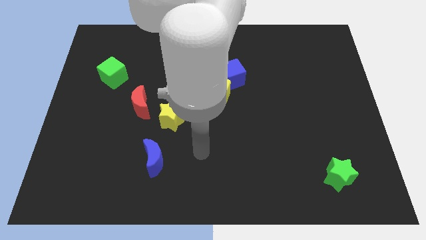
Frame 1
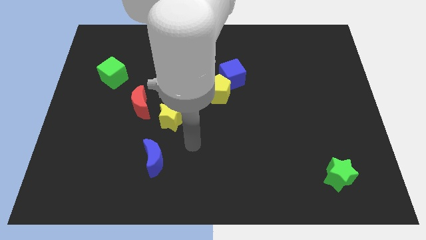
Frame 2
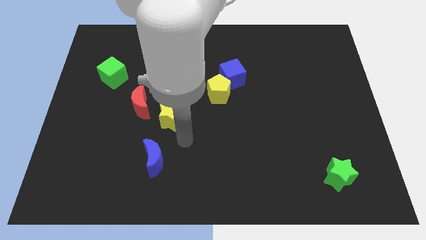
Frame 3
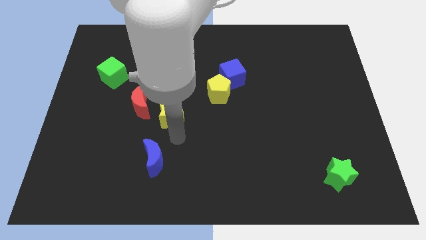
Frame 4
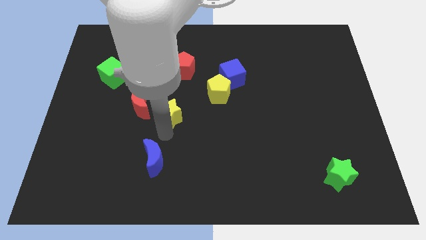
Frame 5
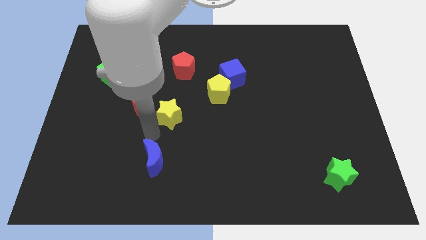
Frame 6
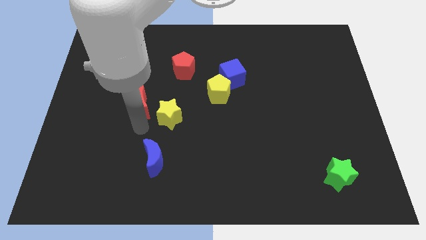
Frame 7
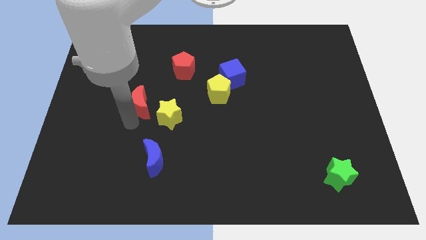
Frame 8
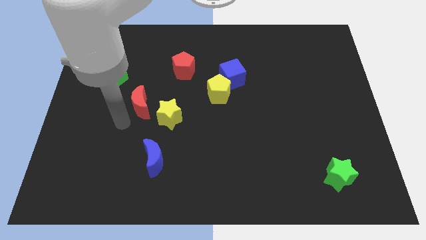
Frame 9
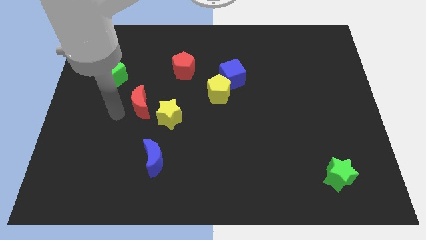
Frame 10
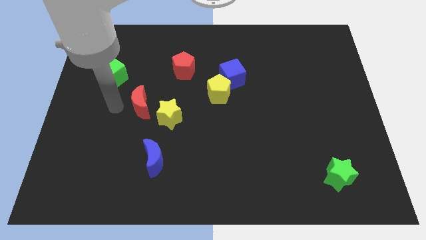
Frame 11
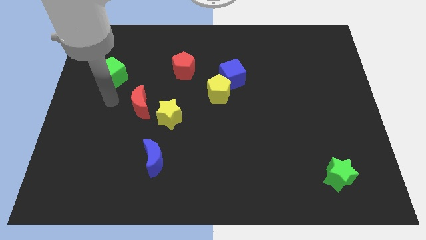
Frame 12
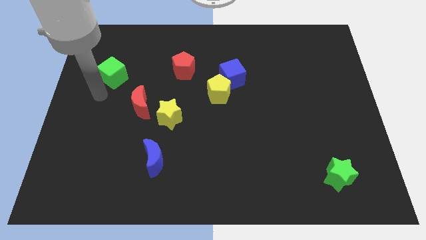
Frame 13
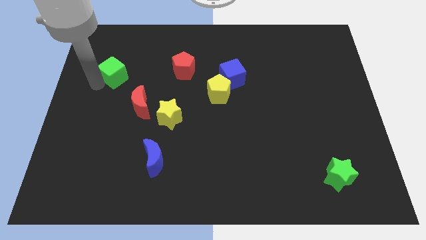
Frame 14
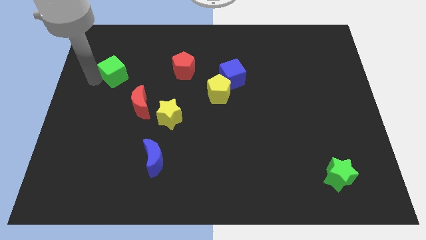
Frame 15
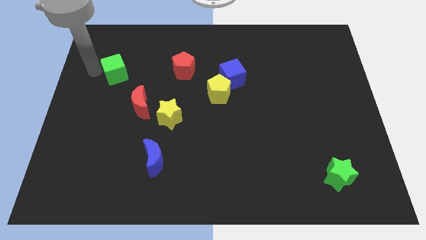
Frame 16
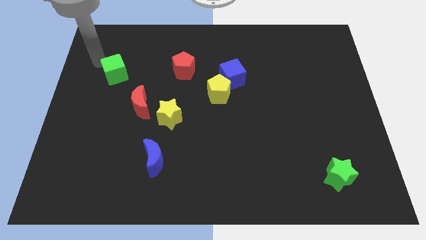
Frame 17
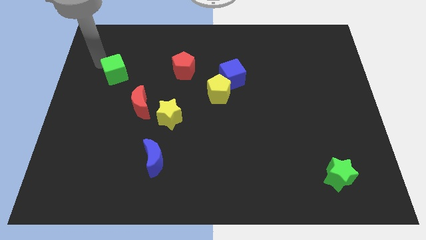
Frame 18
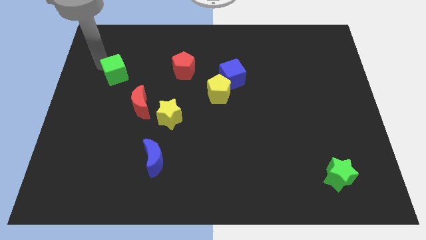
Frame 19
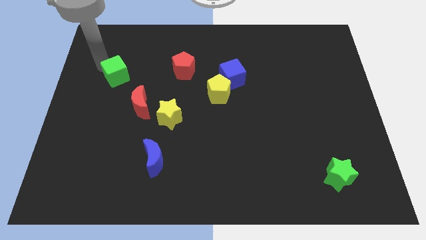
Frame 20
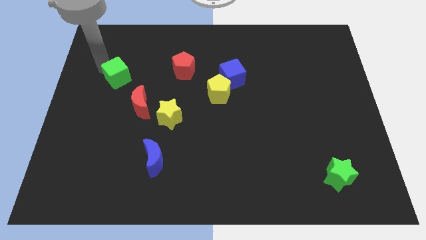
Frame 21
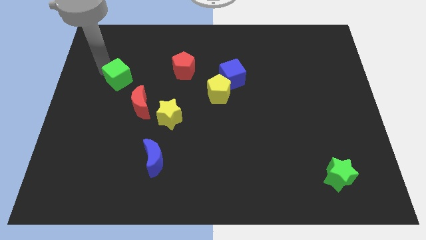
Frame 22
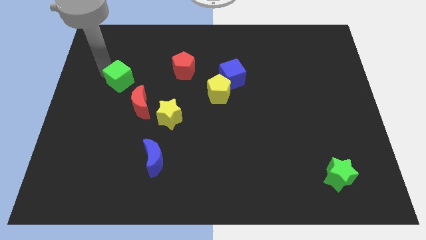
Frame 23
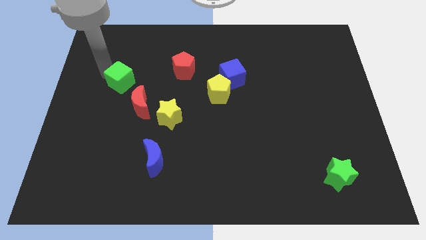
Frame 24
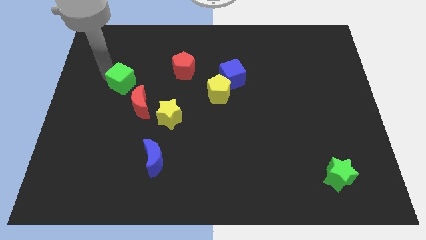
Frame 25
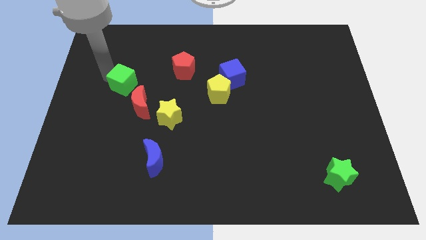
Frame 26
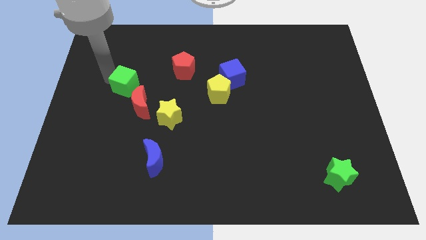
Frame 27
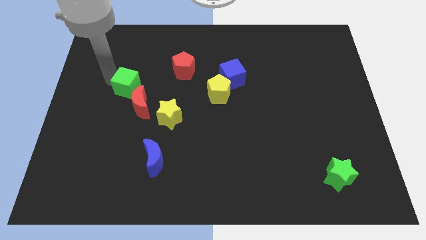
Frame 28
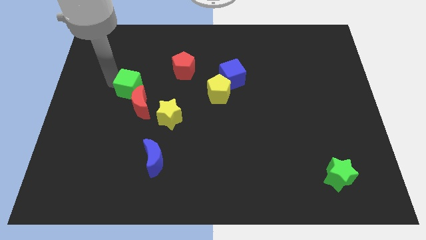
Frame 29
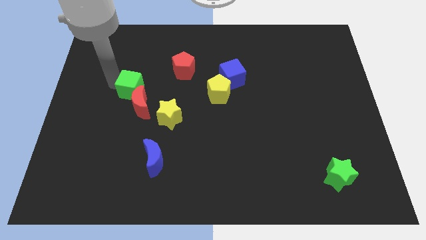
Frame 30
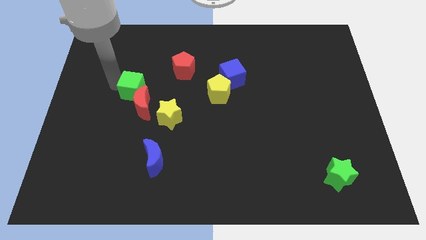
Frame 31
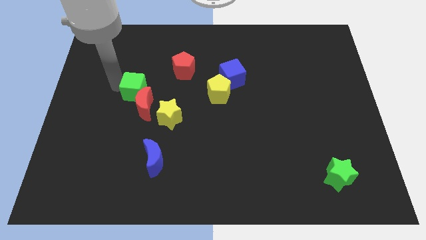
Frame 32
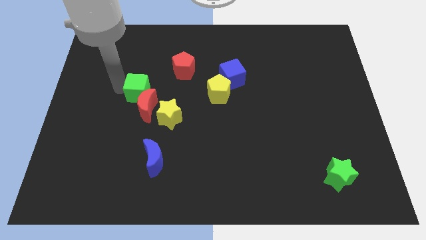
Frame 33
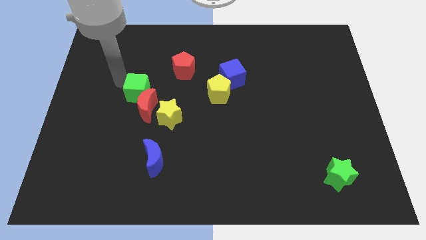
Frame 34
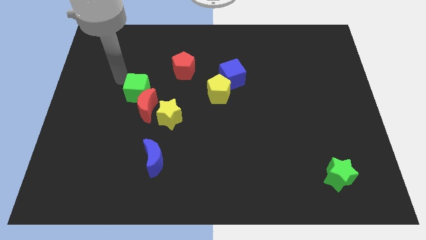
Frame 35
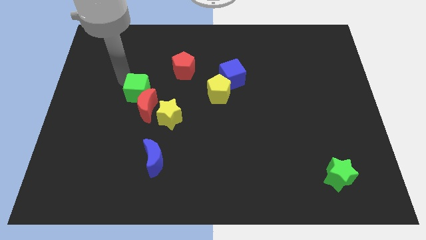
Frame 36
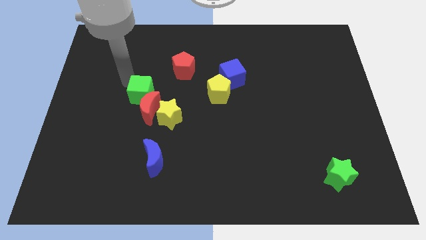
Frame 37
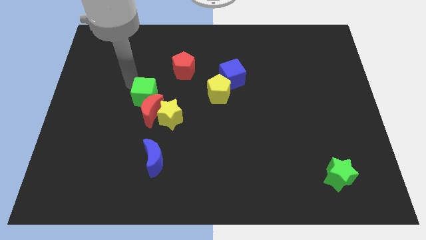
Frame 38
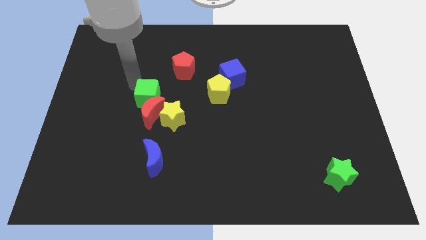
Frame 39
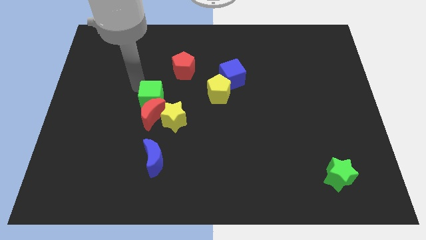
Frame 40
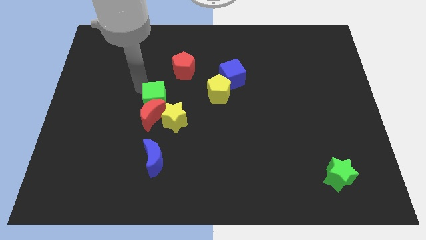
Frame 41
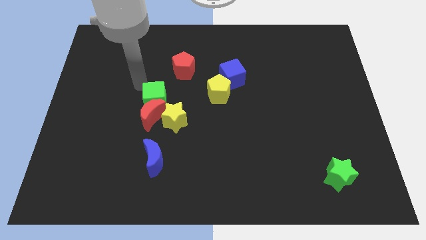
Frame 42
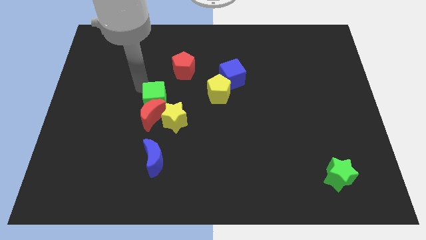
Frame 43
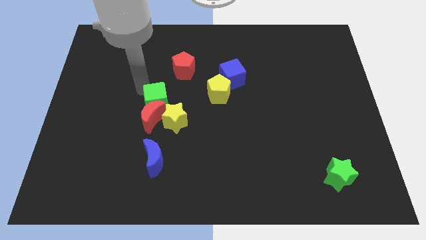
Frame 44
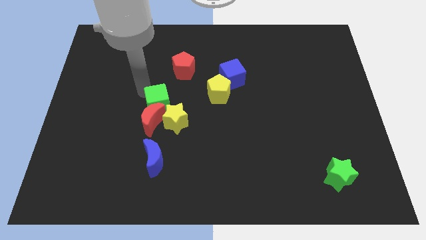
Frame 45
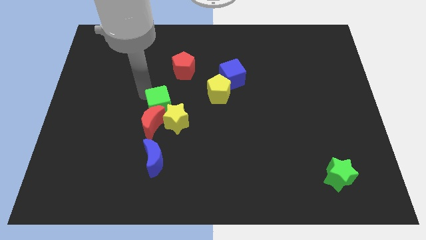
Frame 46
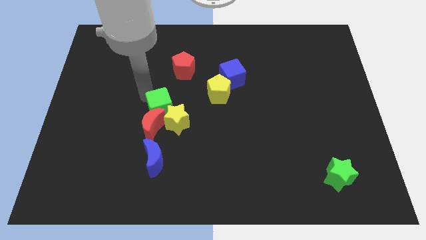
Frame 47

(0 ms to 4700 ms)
push the green cube next to the yellow star

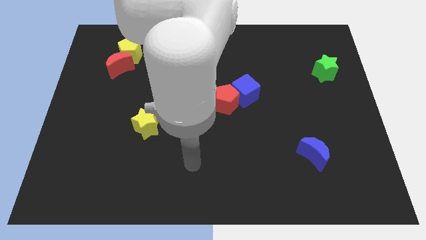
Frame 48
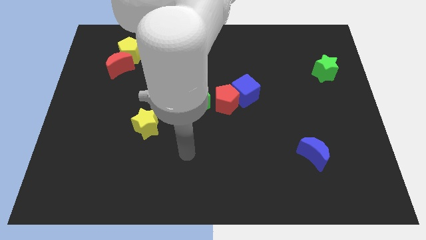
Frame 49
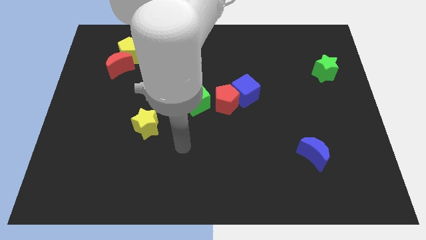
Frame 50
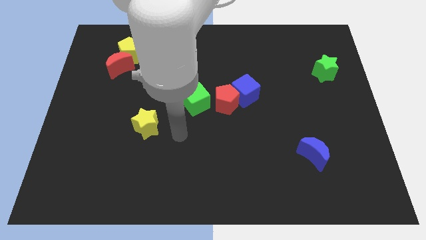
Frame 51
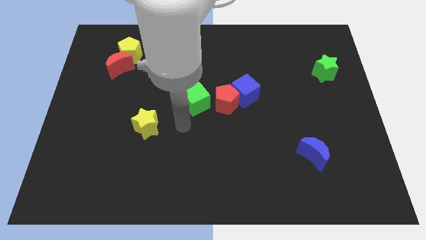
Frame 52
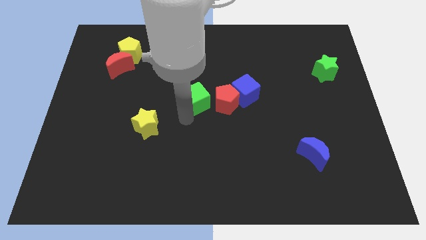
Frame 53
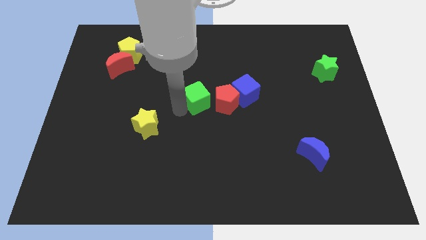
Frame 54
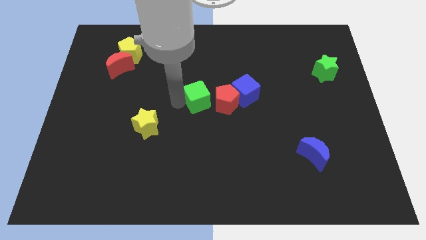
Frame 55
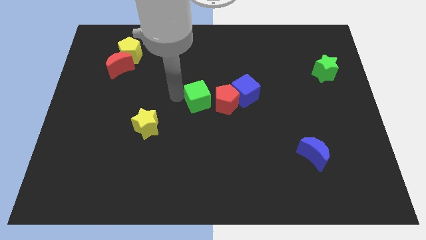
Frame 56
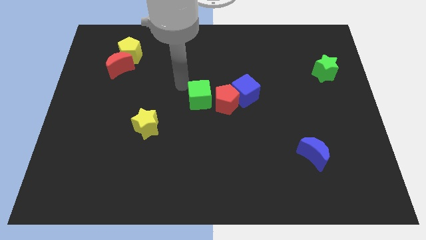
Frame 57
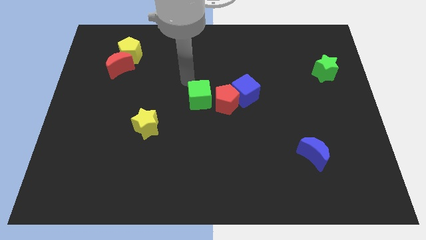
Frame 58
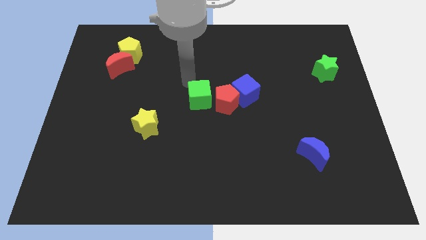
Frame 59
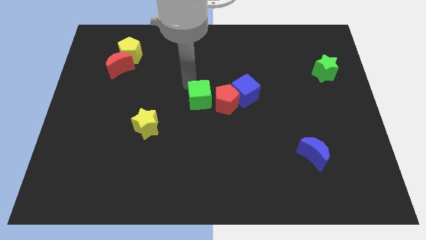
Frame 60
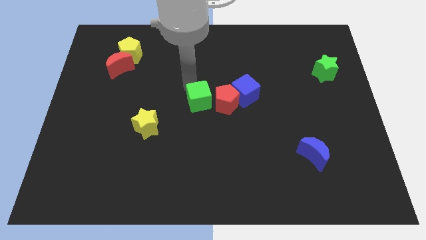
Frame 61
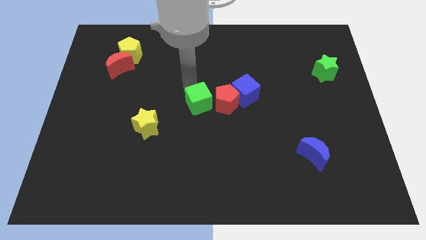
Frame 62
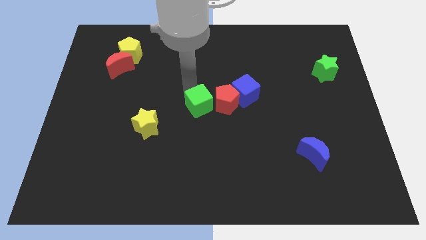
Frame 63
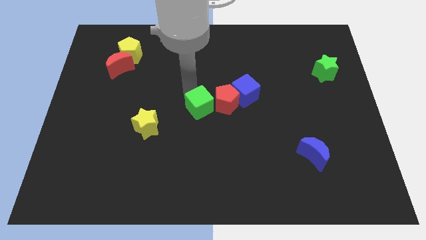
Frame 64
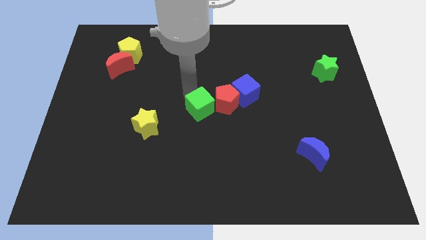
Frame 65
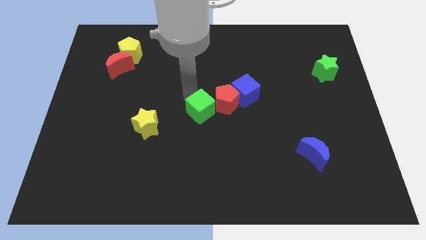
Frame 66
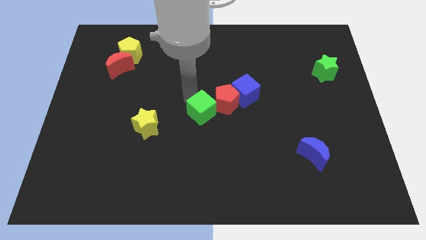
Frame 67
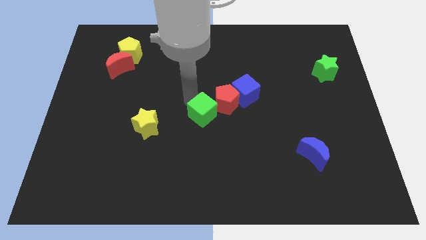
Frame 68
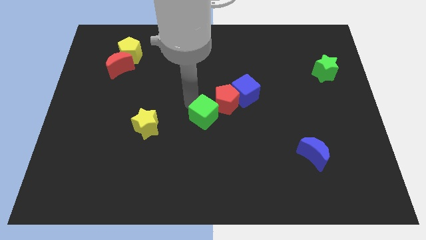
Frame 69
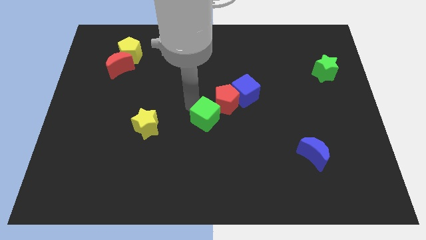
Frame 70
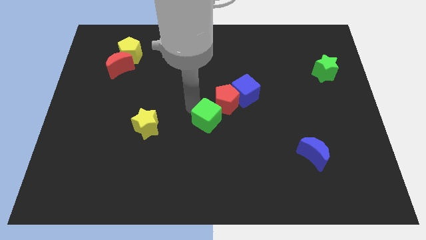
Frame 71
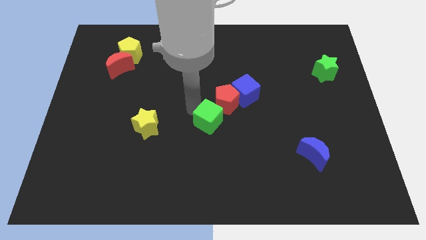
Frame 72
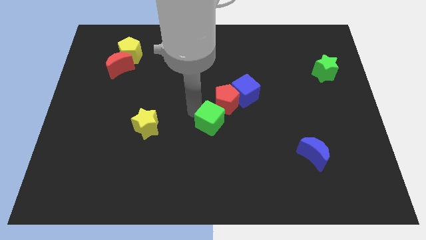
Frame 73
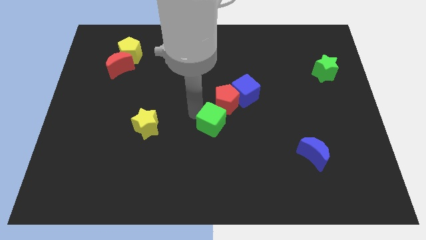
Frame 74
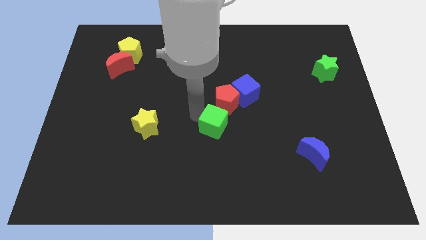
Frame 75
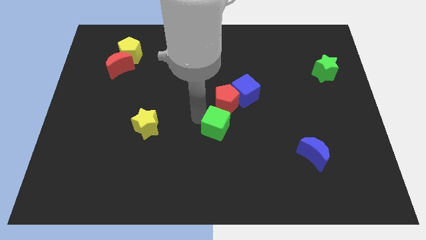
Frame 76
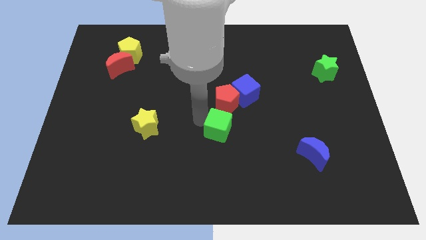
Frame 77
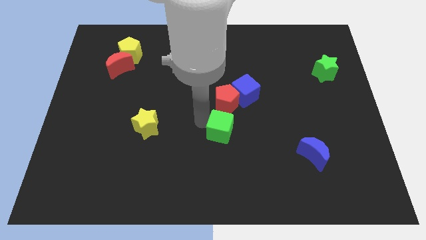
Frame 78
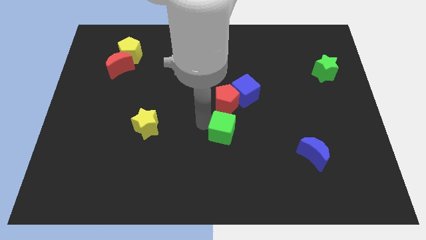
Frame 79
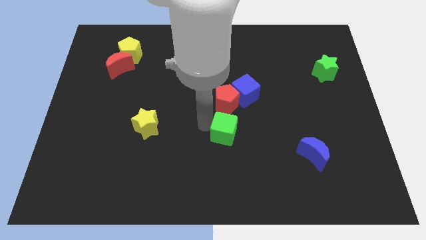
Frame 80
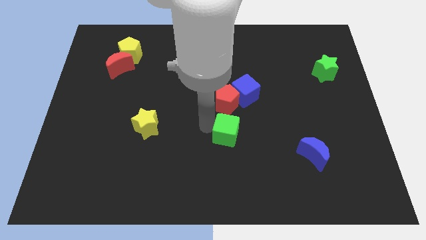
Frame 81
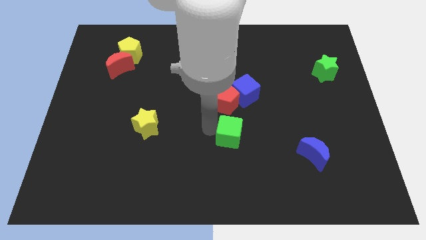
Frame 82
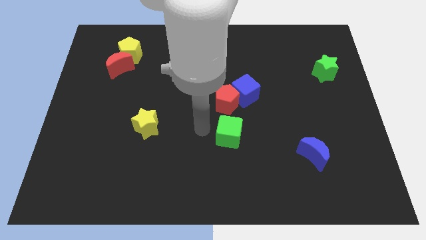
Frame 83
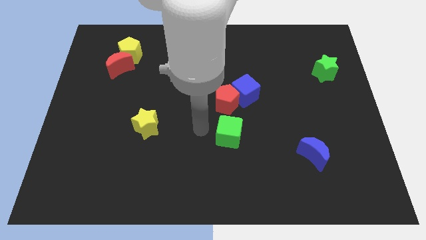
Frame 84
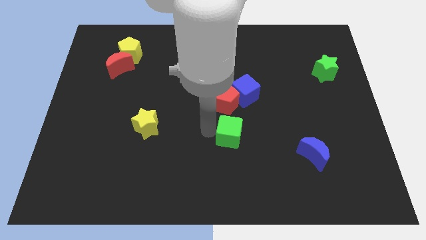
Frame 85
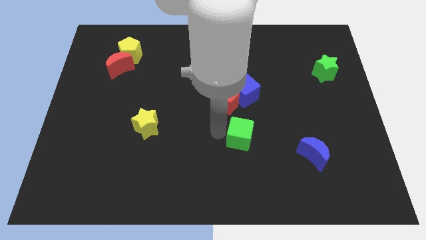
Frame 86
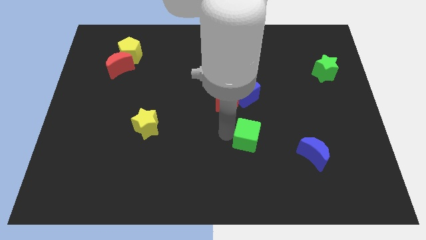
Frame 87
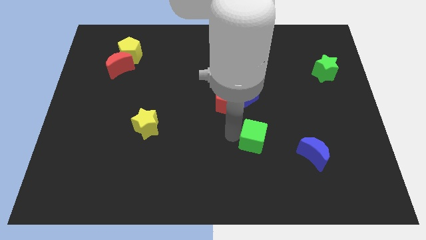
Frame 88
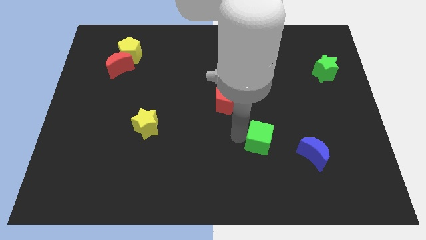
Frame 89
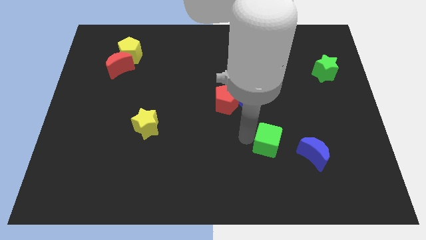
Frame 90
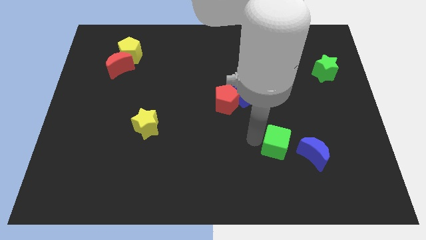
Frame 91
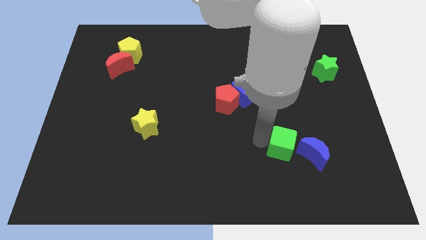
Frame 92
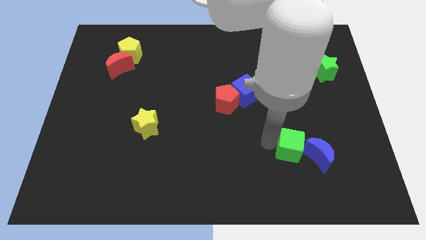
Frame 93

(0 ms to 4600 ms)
slide the green cube next to the blue moon
